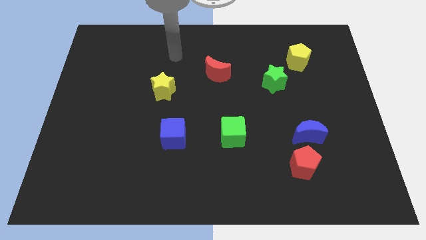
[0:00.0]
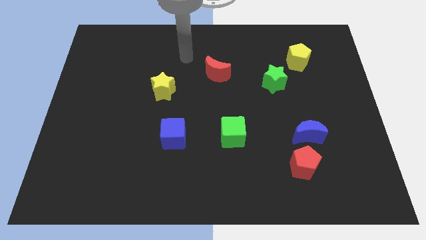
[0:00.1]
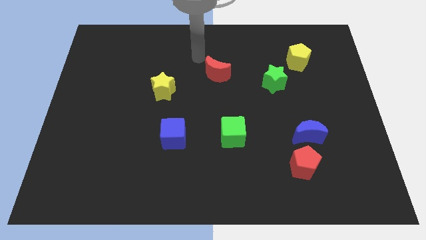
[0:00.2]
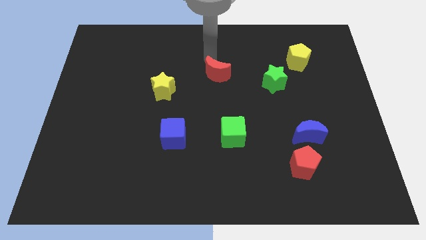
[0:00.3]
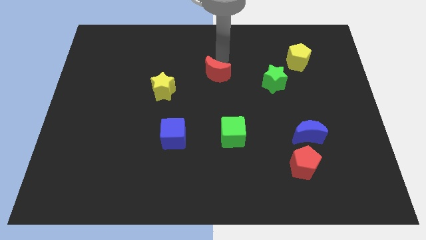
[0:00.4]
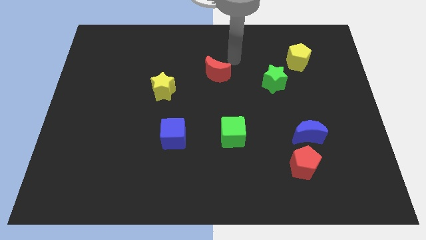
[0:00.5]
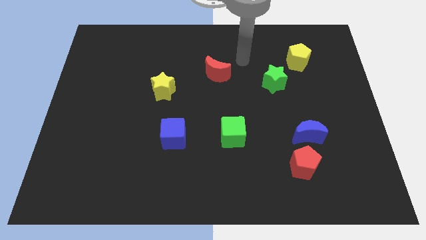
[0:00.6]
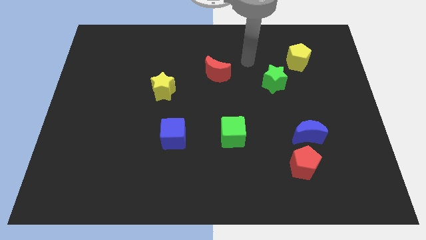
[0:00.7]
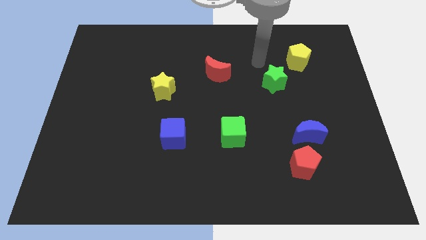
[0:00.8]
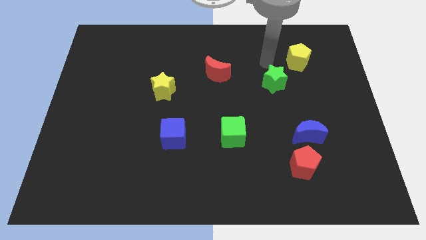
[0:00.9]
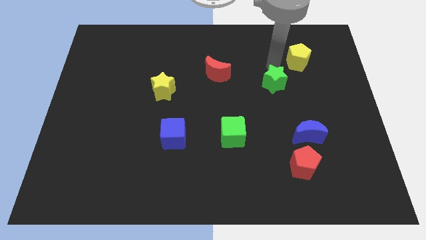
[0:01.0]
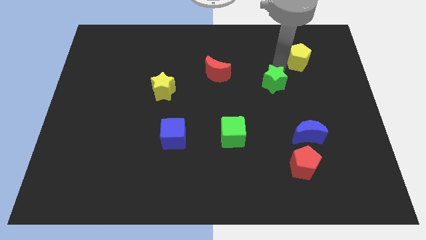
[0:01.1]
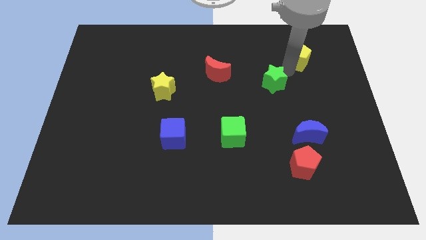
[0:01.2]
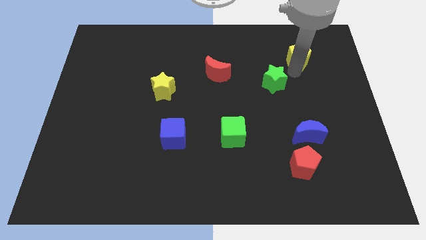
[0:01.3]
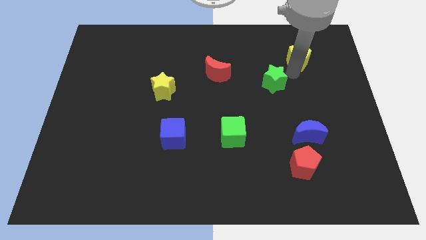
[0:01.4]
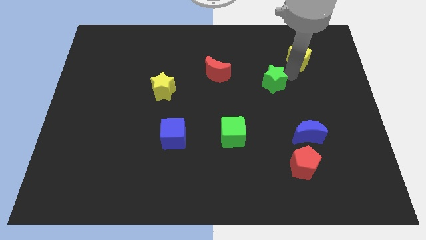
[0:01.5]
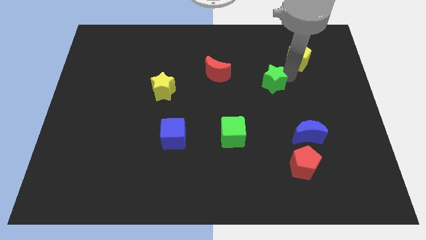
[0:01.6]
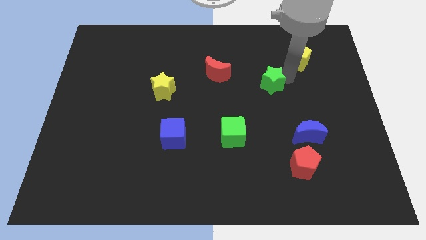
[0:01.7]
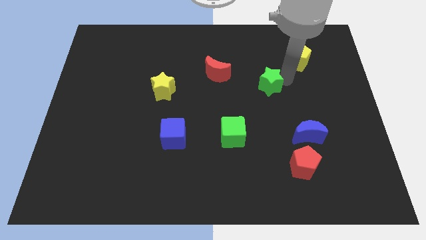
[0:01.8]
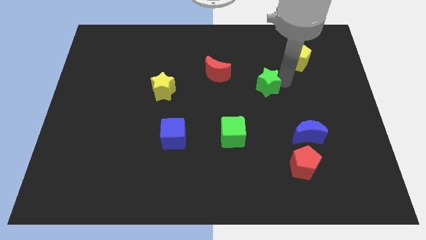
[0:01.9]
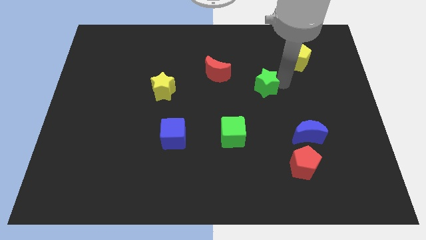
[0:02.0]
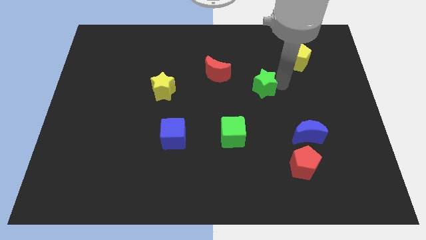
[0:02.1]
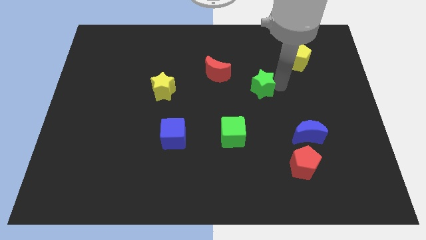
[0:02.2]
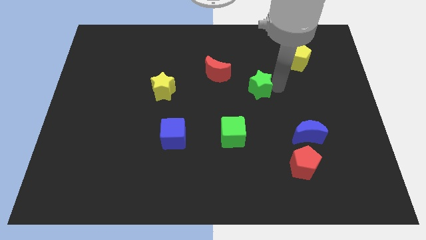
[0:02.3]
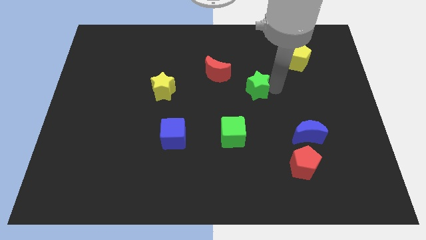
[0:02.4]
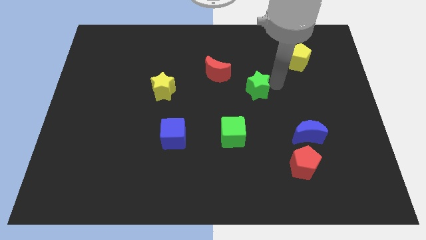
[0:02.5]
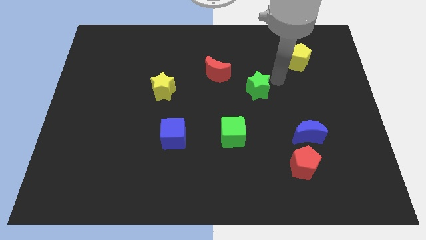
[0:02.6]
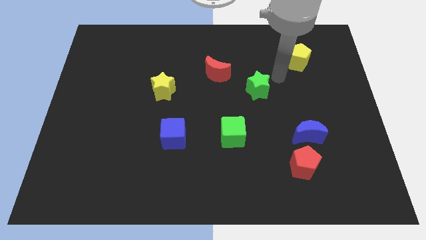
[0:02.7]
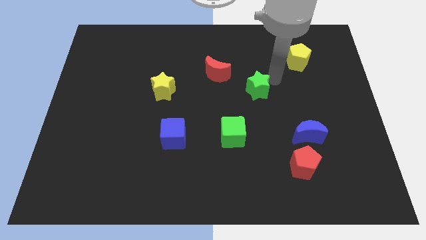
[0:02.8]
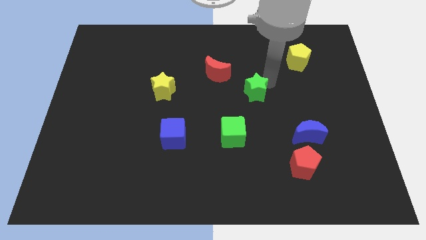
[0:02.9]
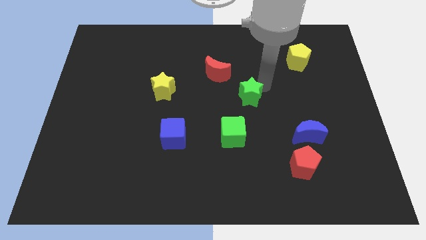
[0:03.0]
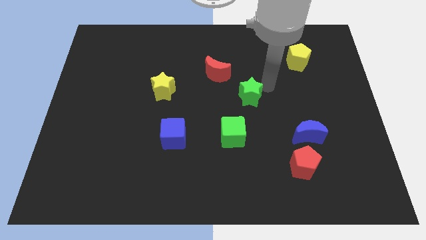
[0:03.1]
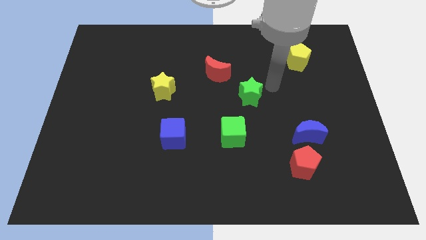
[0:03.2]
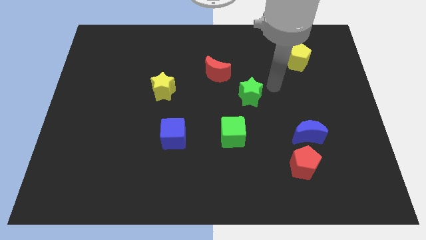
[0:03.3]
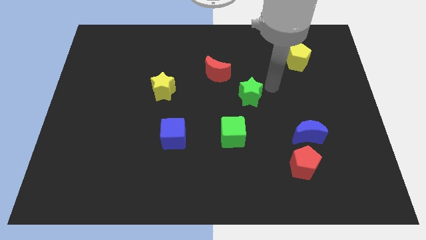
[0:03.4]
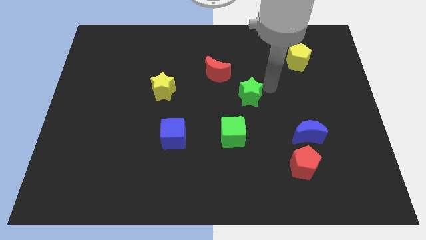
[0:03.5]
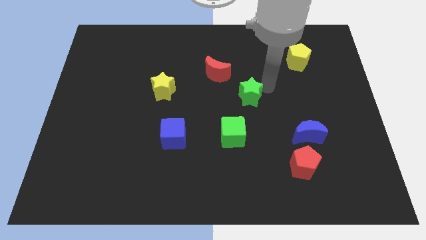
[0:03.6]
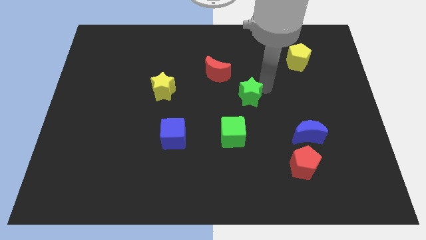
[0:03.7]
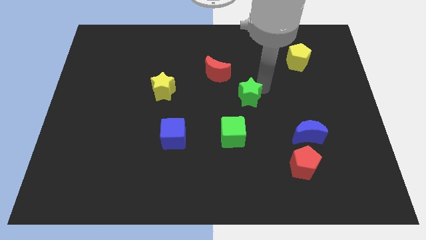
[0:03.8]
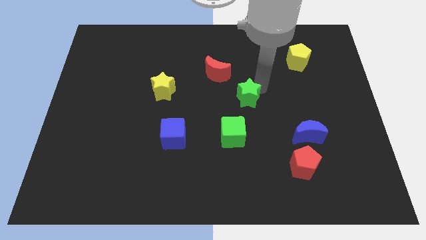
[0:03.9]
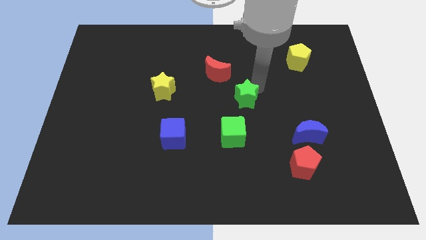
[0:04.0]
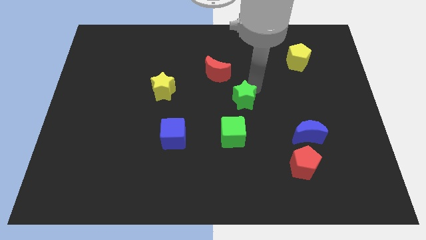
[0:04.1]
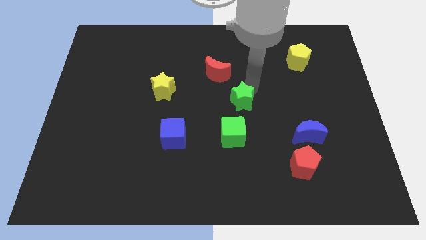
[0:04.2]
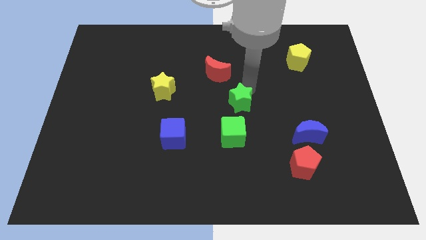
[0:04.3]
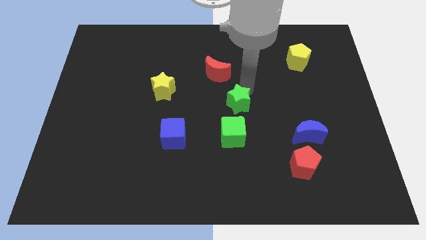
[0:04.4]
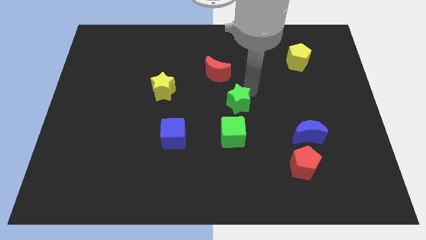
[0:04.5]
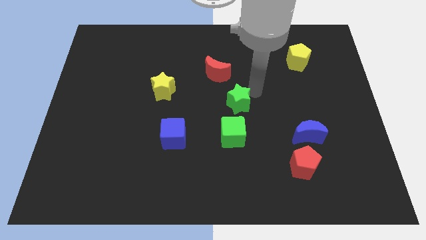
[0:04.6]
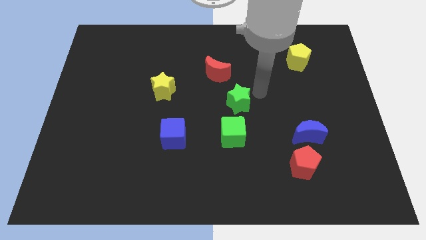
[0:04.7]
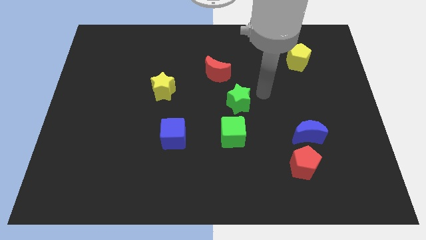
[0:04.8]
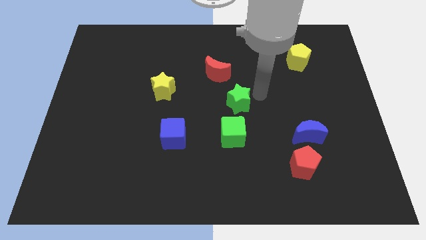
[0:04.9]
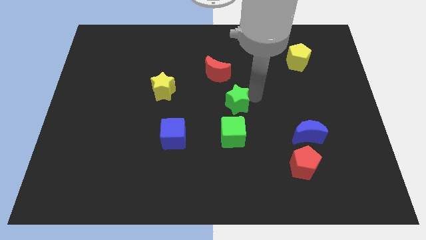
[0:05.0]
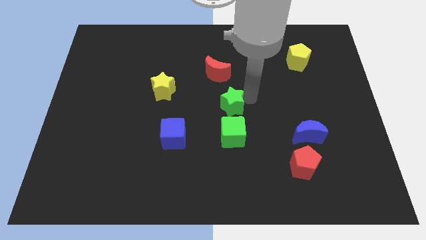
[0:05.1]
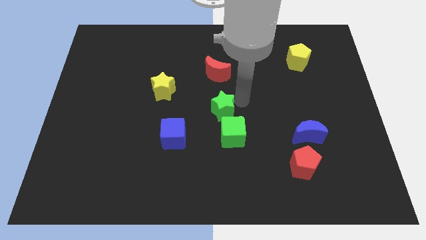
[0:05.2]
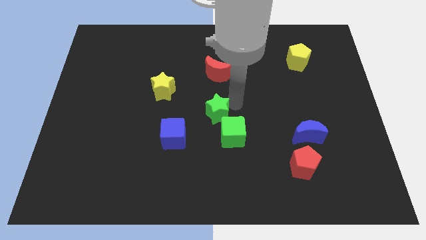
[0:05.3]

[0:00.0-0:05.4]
push the green star to the top right side of the blue cube

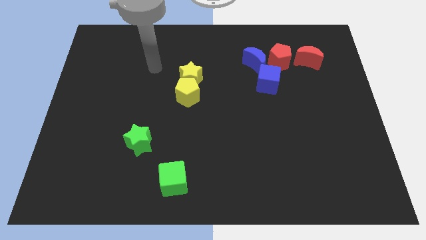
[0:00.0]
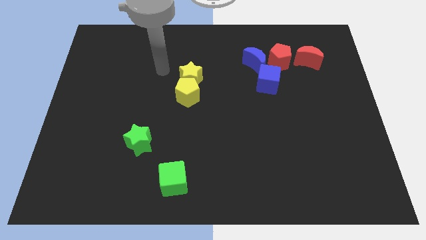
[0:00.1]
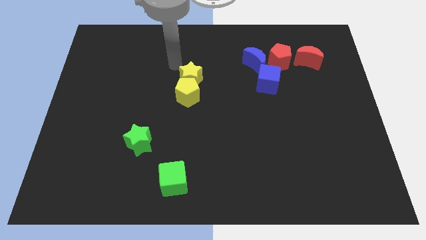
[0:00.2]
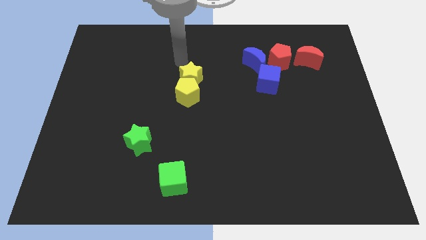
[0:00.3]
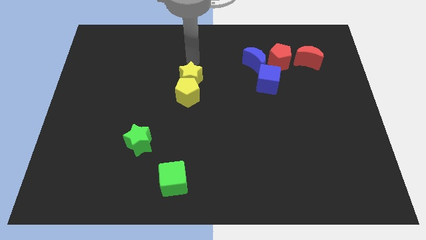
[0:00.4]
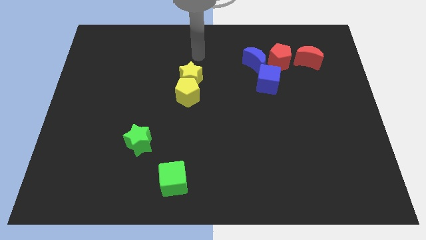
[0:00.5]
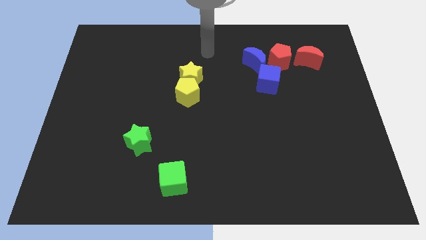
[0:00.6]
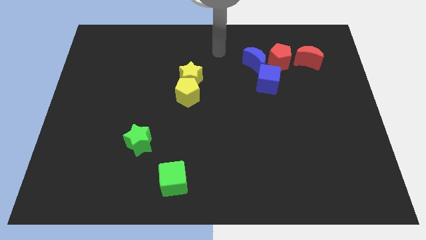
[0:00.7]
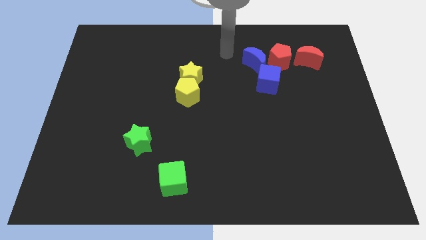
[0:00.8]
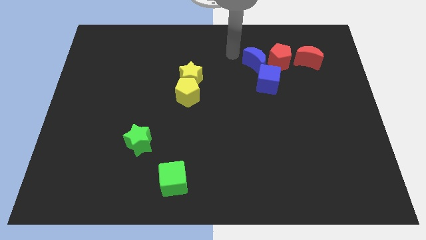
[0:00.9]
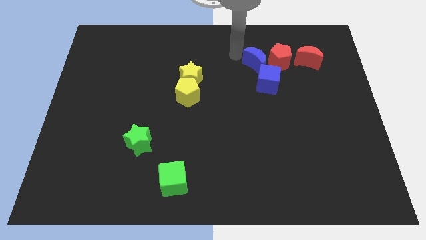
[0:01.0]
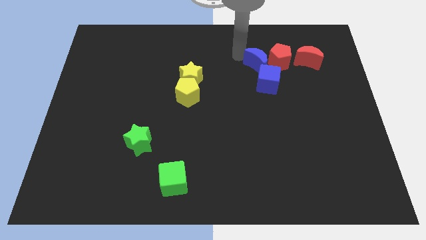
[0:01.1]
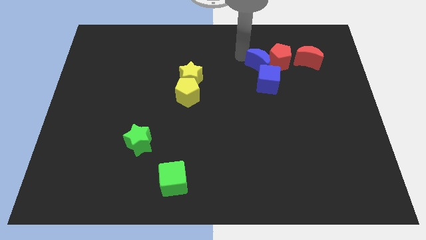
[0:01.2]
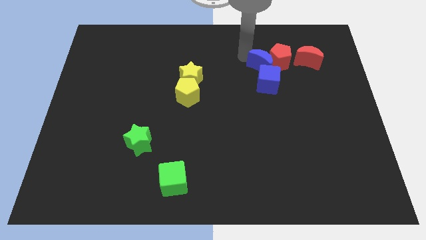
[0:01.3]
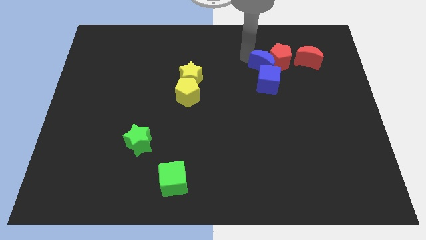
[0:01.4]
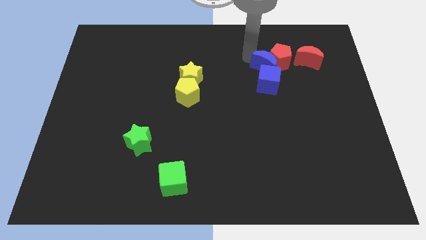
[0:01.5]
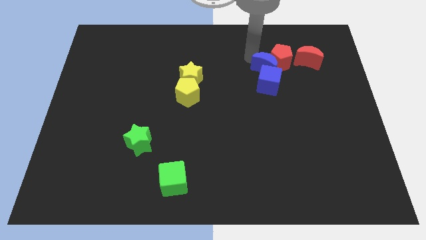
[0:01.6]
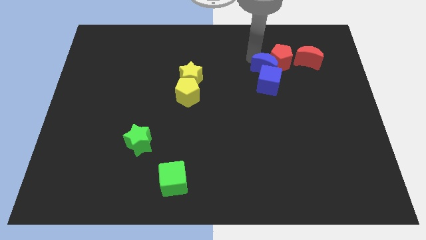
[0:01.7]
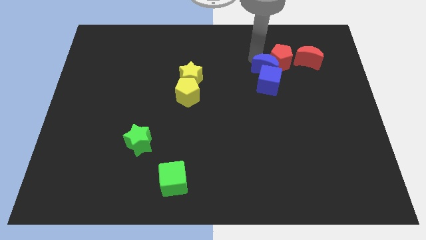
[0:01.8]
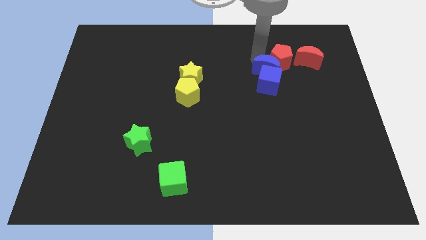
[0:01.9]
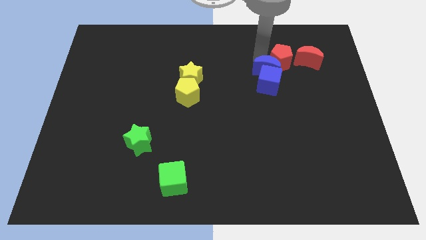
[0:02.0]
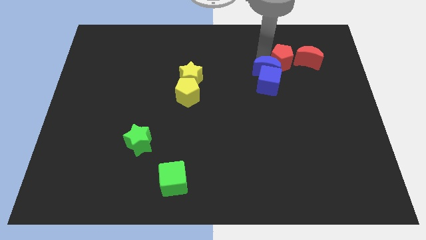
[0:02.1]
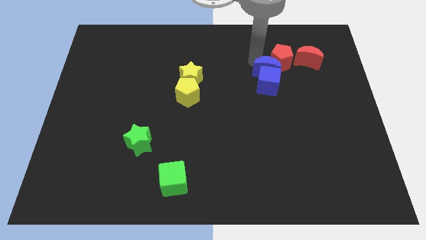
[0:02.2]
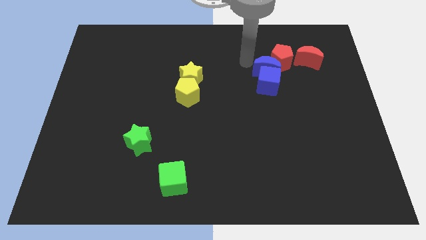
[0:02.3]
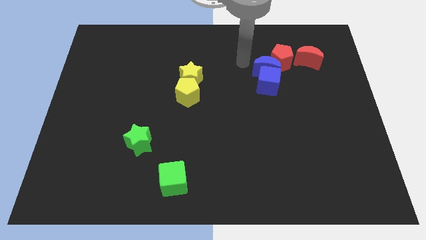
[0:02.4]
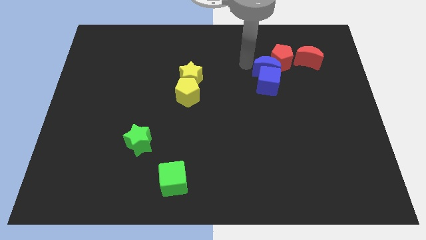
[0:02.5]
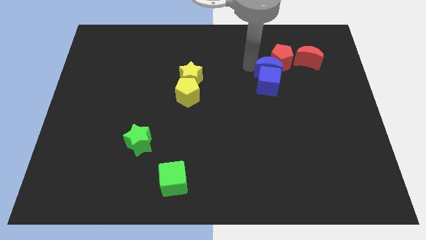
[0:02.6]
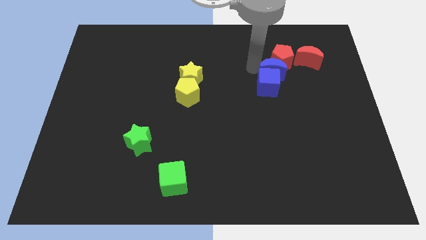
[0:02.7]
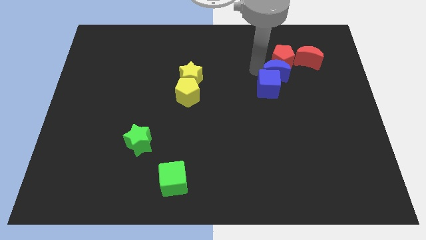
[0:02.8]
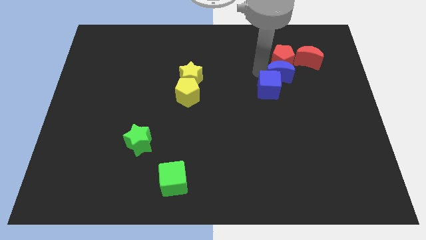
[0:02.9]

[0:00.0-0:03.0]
move the blue moon to the right side of the blue cube
